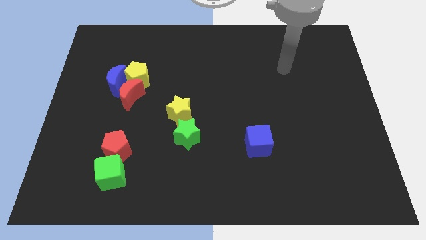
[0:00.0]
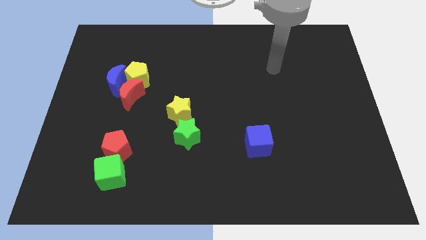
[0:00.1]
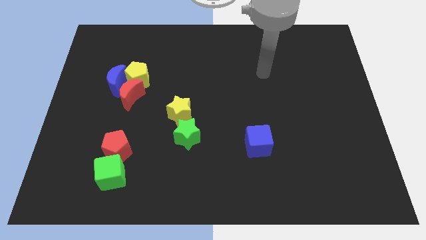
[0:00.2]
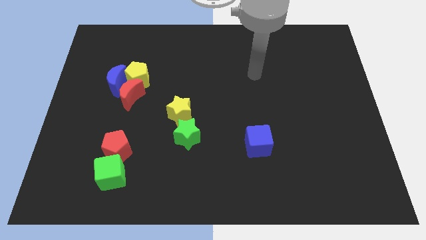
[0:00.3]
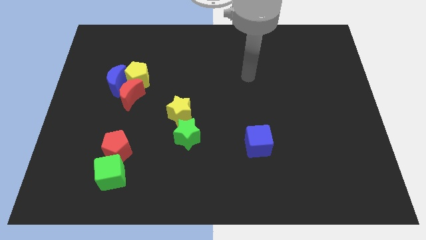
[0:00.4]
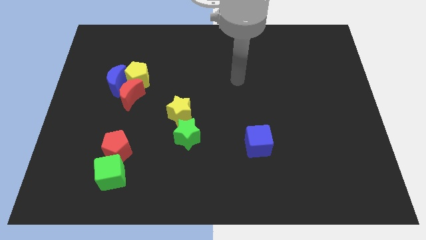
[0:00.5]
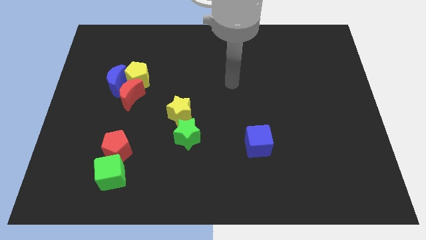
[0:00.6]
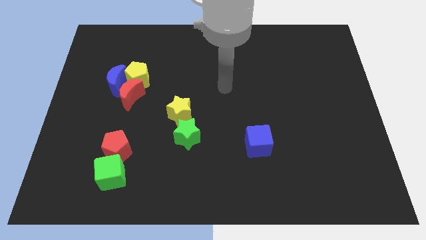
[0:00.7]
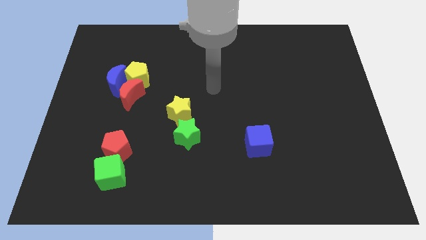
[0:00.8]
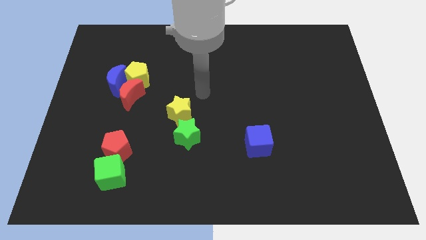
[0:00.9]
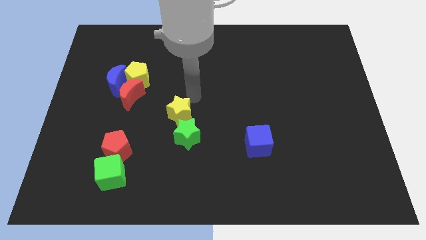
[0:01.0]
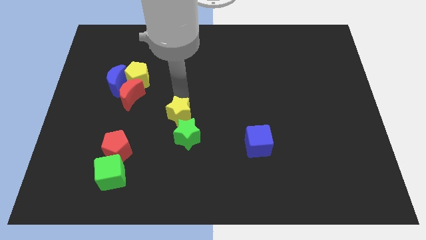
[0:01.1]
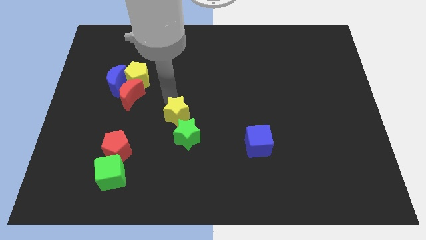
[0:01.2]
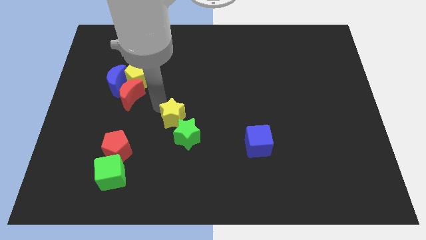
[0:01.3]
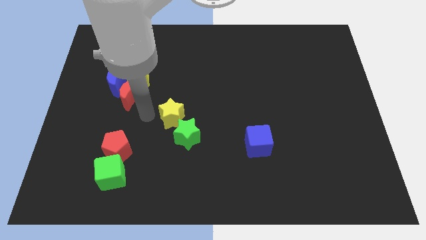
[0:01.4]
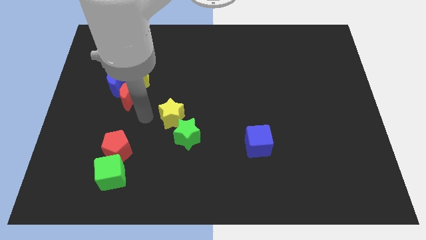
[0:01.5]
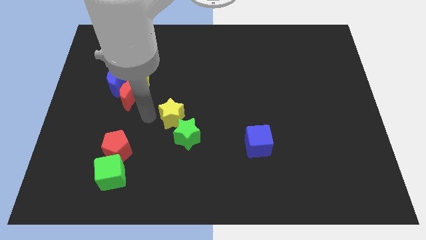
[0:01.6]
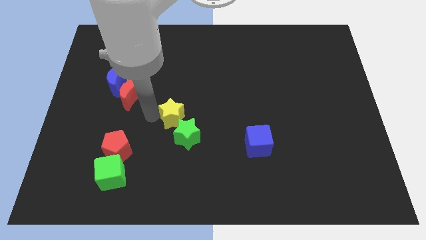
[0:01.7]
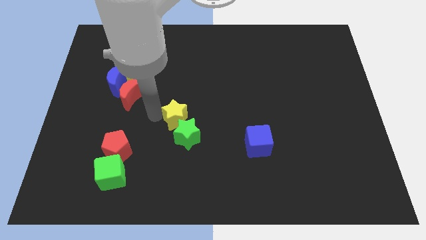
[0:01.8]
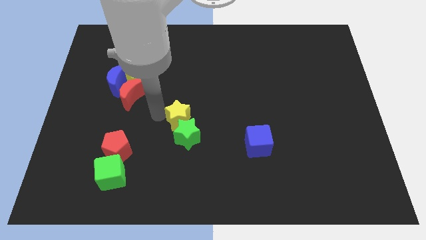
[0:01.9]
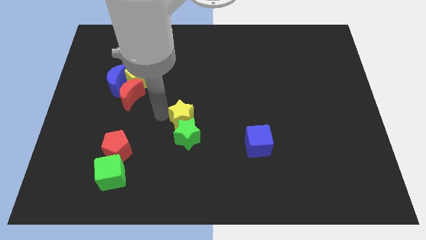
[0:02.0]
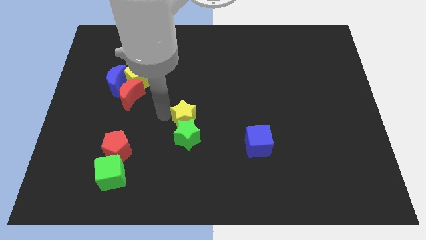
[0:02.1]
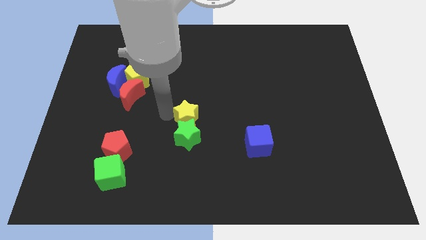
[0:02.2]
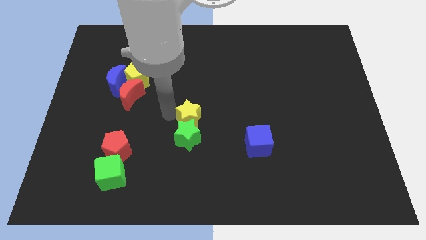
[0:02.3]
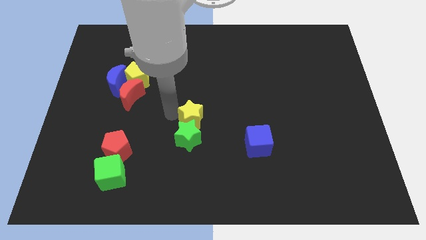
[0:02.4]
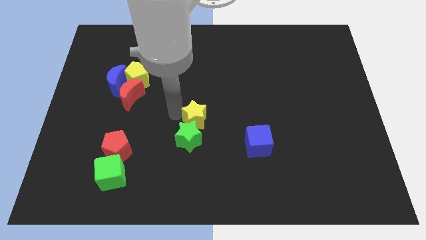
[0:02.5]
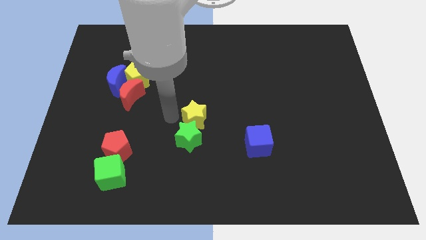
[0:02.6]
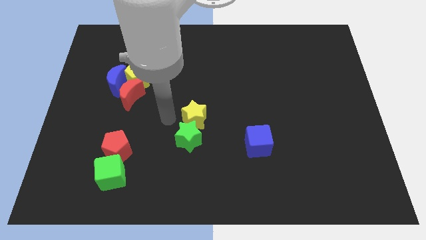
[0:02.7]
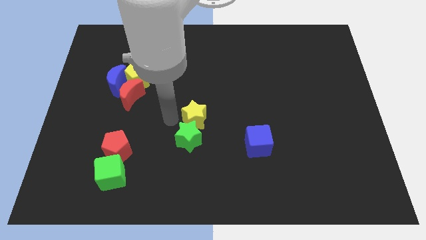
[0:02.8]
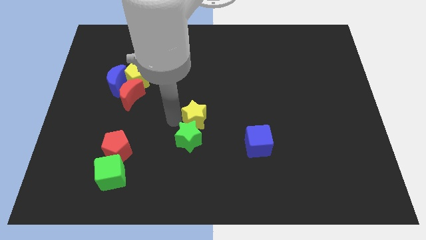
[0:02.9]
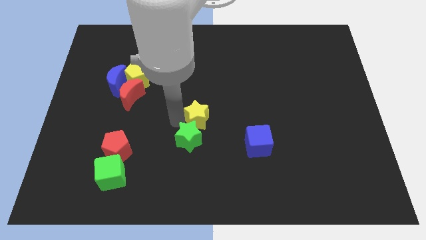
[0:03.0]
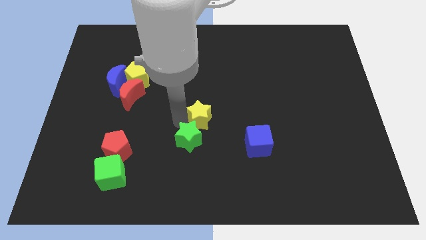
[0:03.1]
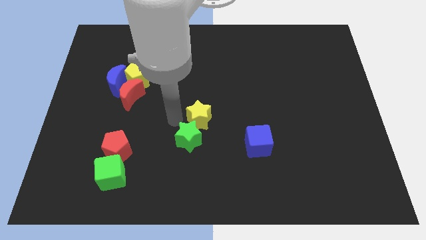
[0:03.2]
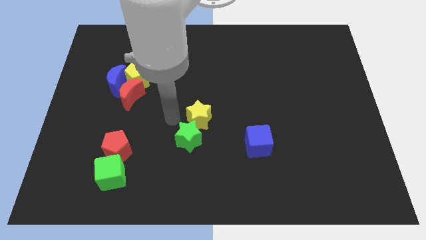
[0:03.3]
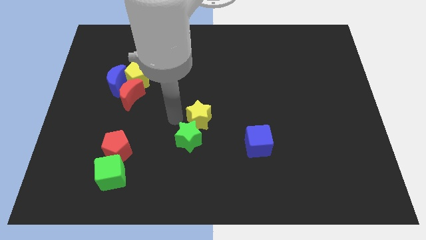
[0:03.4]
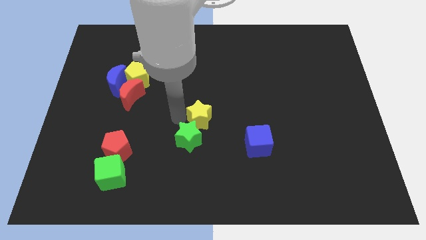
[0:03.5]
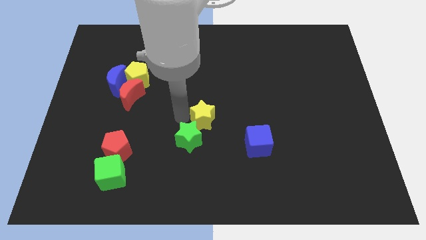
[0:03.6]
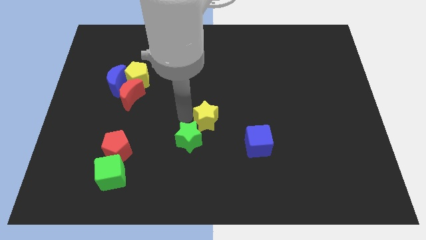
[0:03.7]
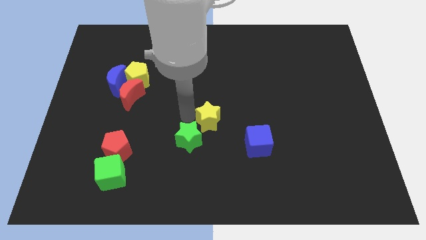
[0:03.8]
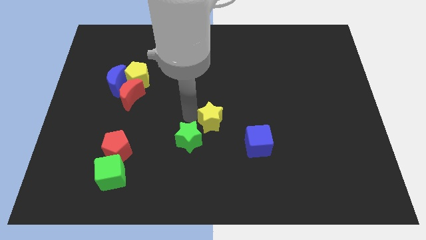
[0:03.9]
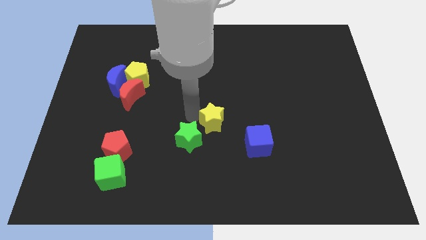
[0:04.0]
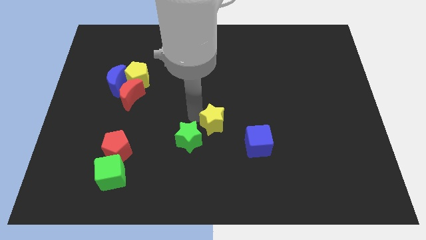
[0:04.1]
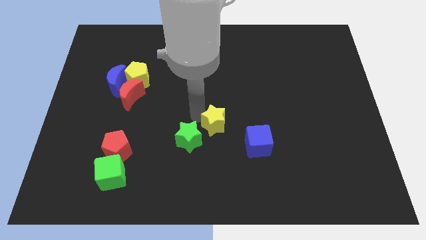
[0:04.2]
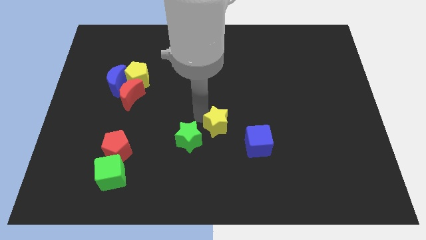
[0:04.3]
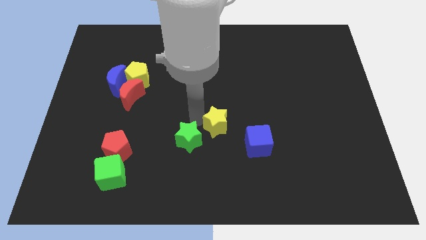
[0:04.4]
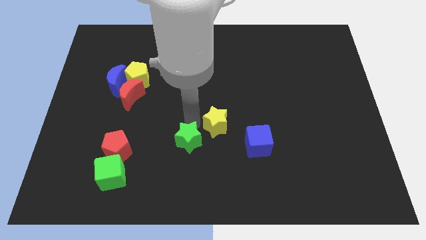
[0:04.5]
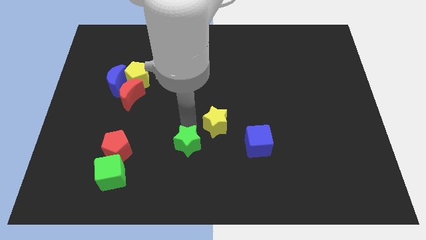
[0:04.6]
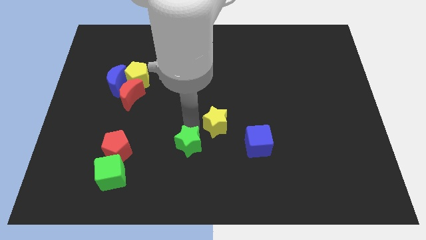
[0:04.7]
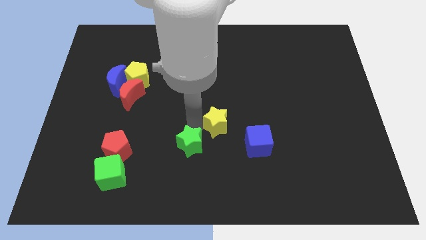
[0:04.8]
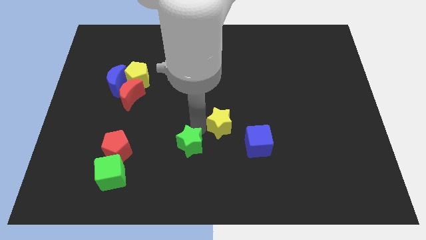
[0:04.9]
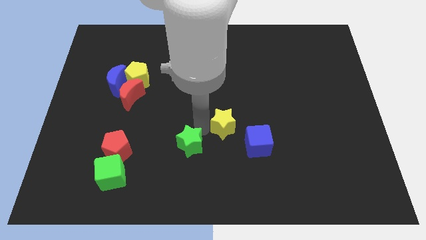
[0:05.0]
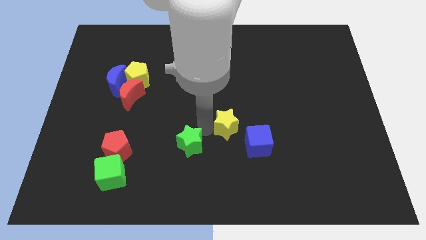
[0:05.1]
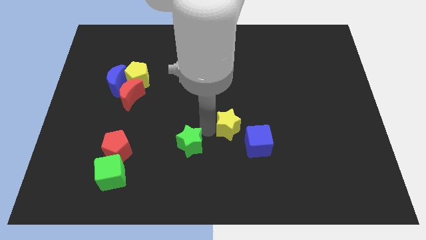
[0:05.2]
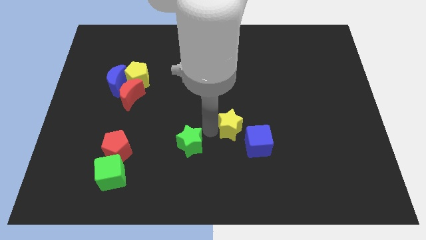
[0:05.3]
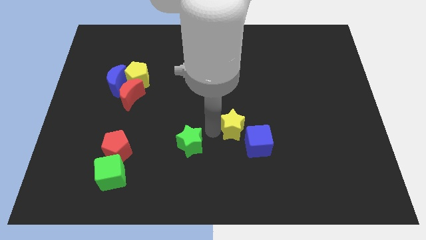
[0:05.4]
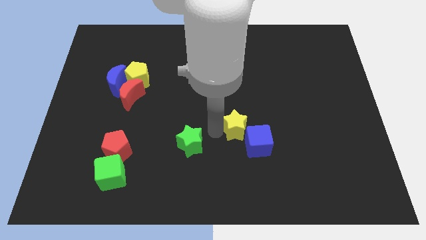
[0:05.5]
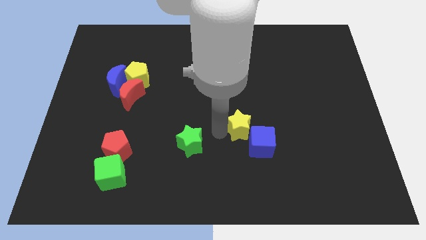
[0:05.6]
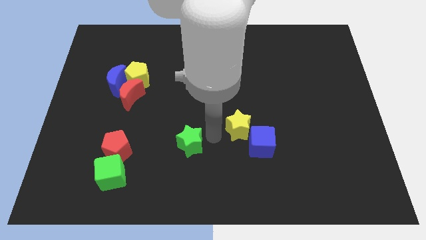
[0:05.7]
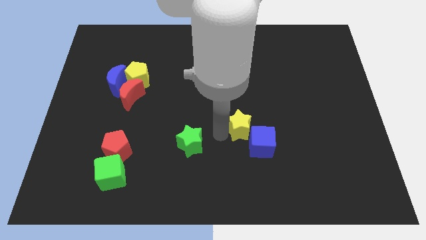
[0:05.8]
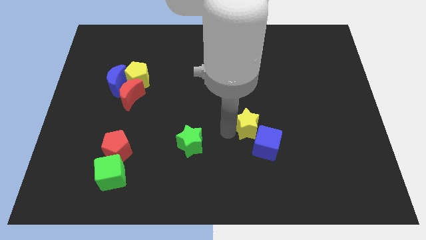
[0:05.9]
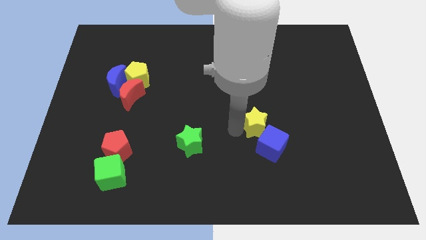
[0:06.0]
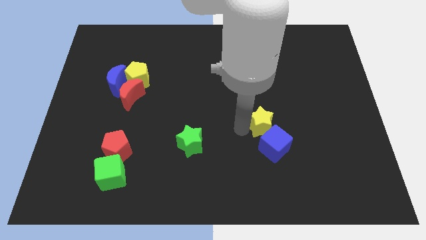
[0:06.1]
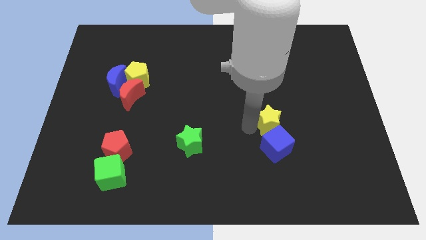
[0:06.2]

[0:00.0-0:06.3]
push the yellow star to the right

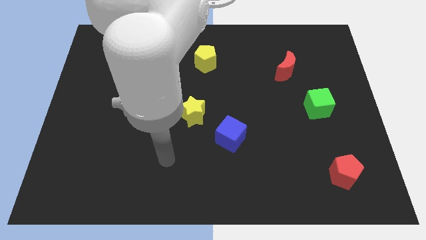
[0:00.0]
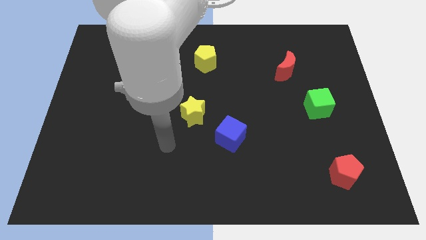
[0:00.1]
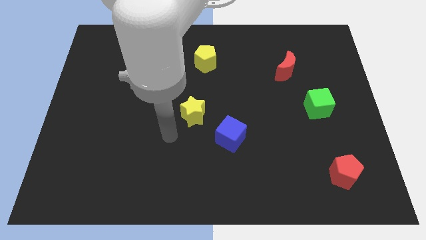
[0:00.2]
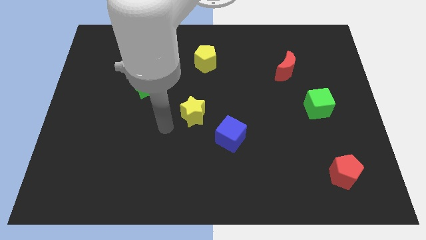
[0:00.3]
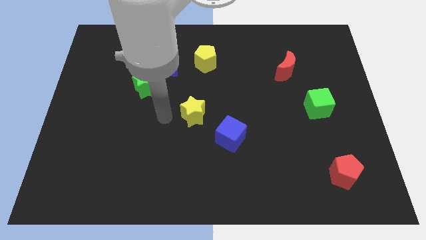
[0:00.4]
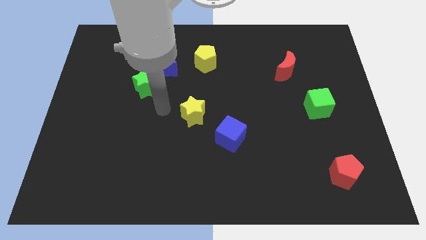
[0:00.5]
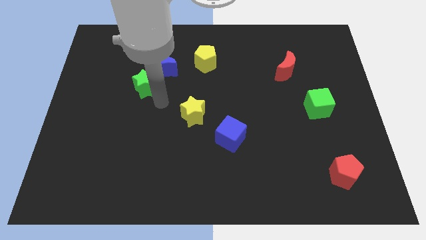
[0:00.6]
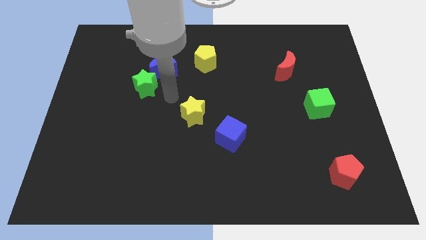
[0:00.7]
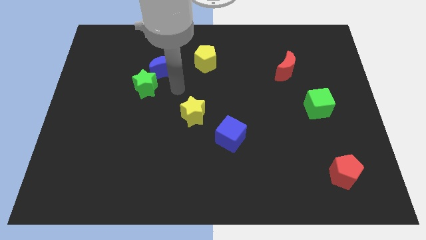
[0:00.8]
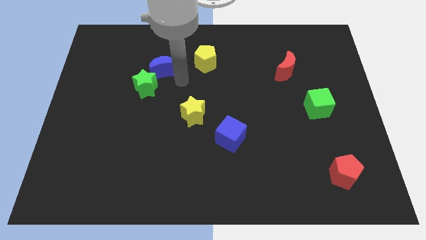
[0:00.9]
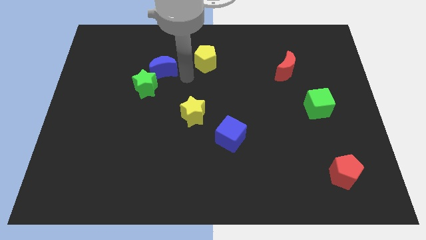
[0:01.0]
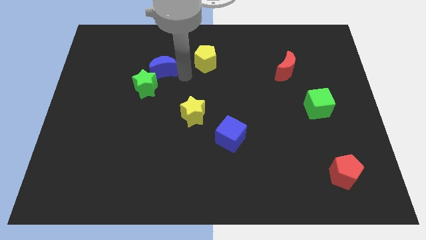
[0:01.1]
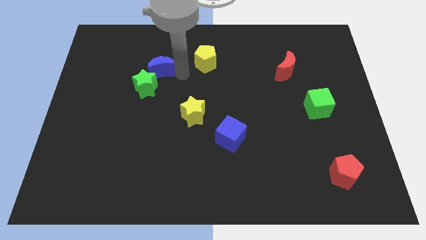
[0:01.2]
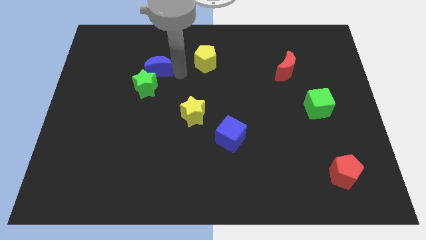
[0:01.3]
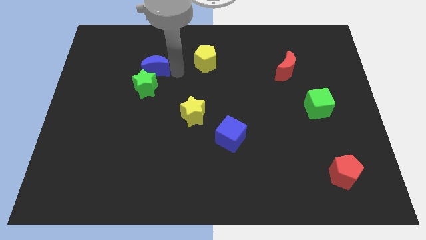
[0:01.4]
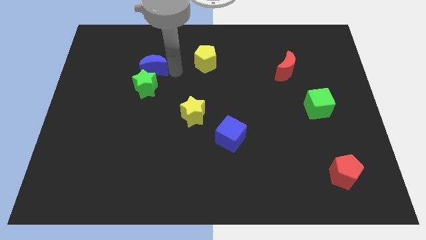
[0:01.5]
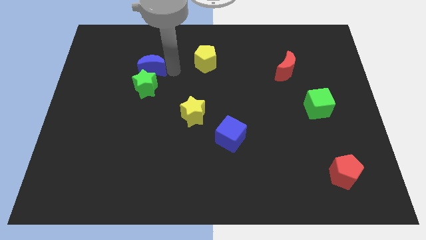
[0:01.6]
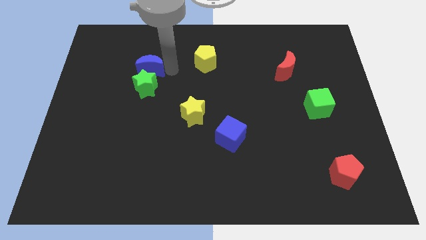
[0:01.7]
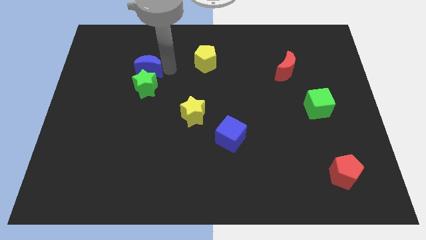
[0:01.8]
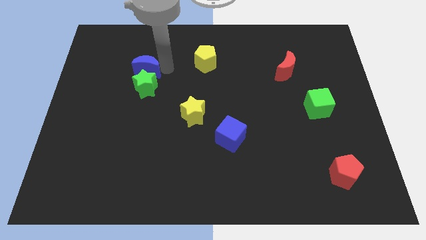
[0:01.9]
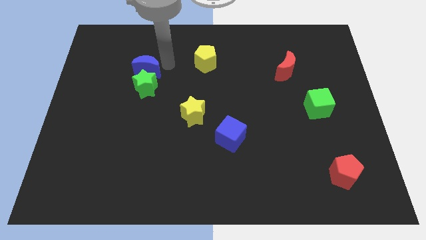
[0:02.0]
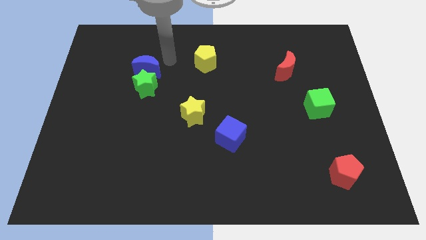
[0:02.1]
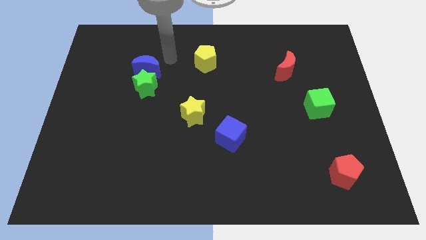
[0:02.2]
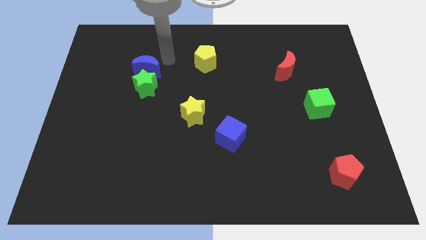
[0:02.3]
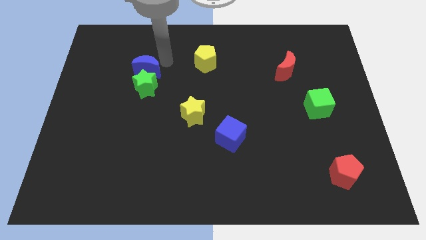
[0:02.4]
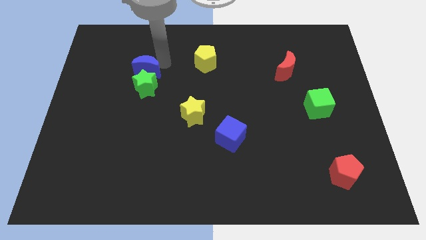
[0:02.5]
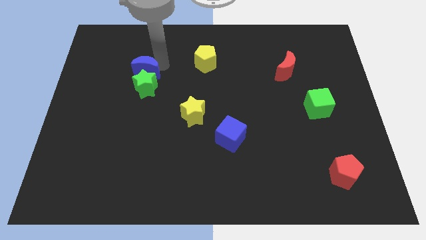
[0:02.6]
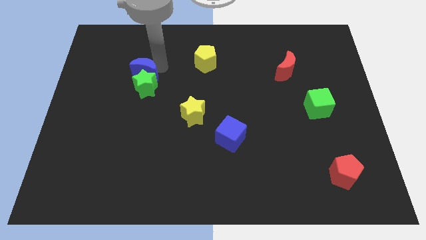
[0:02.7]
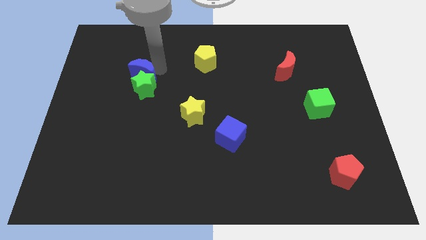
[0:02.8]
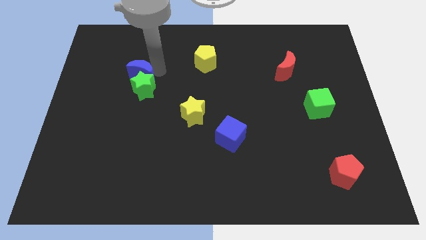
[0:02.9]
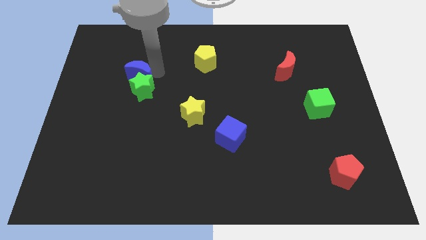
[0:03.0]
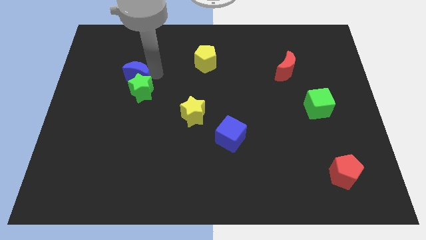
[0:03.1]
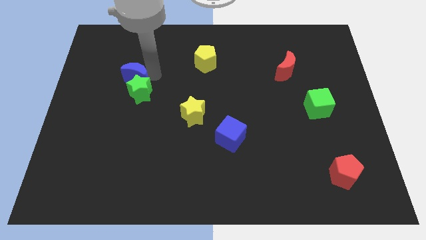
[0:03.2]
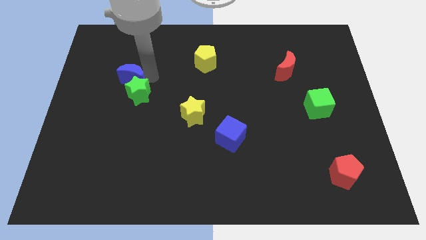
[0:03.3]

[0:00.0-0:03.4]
slightly move the blue moon down and left
